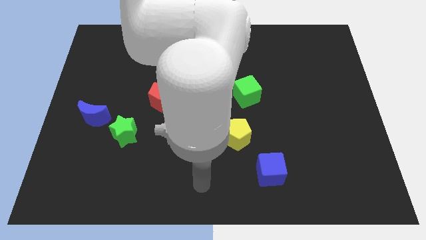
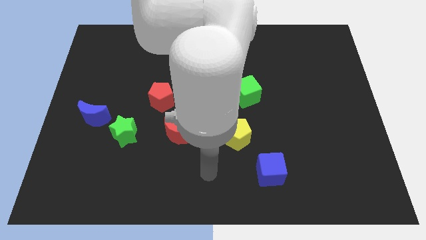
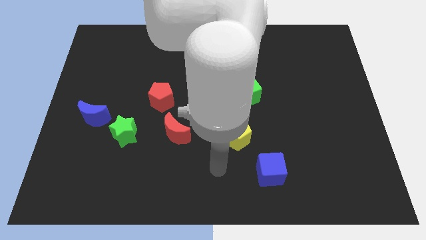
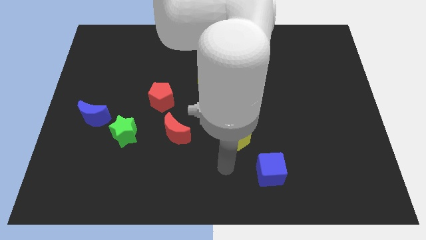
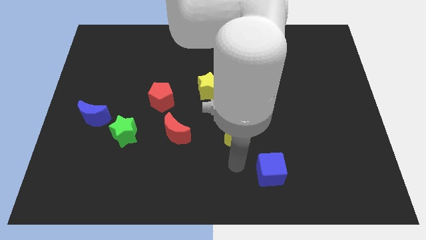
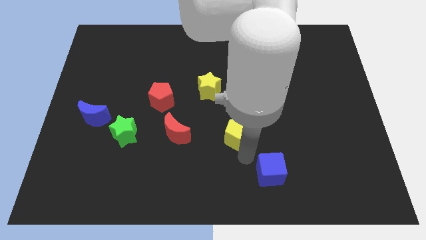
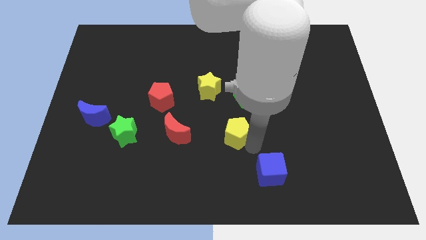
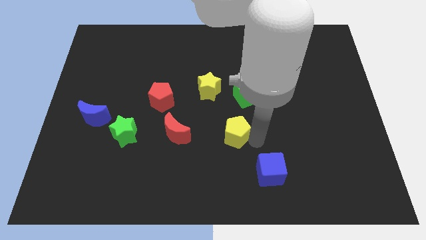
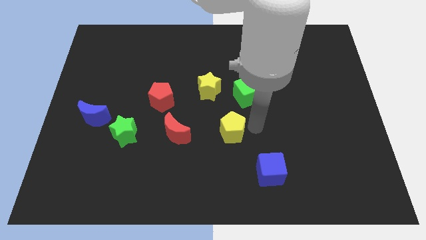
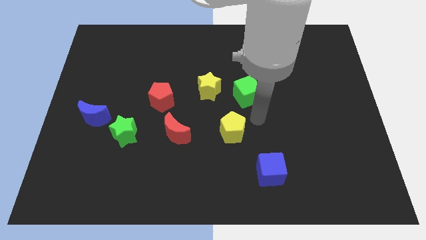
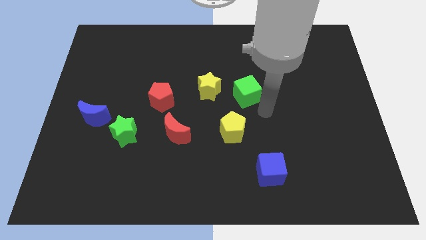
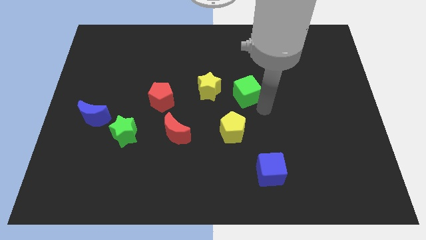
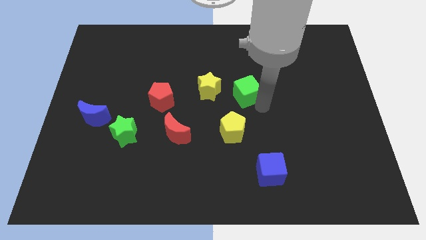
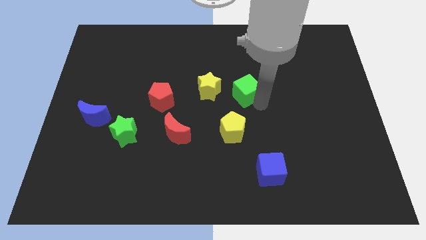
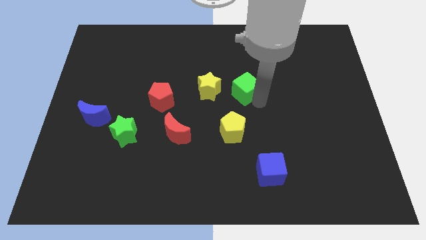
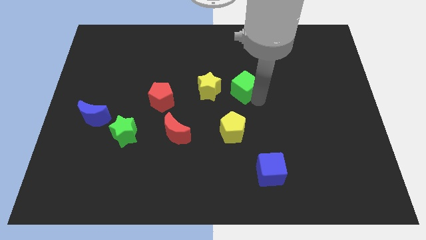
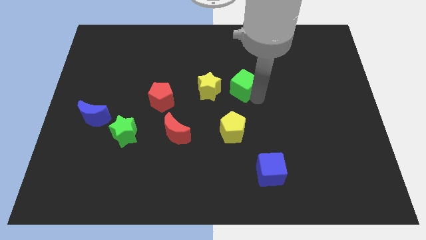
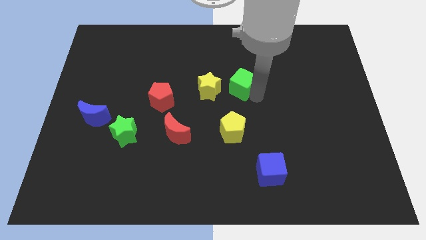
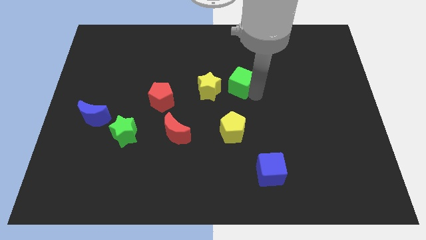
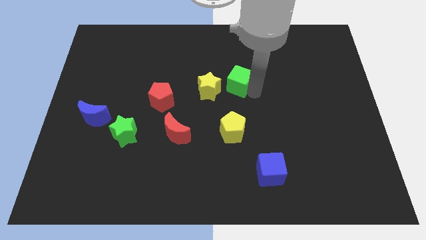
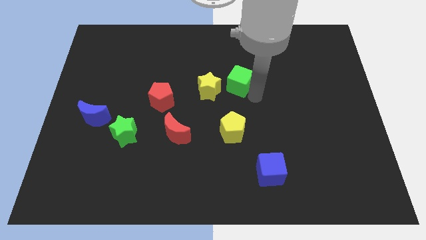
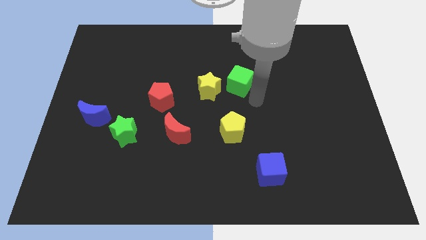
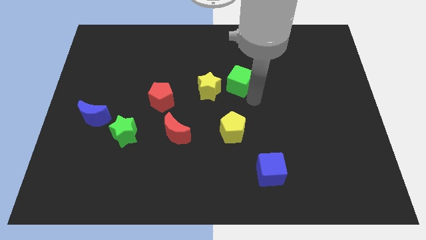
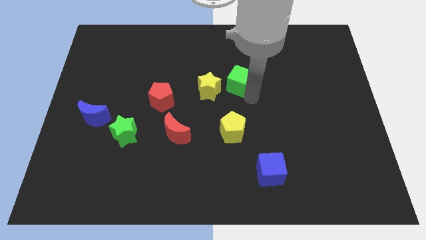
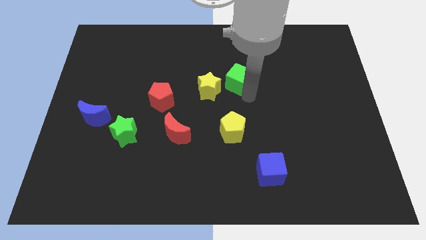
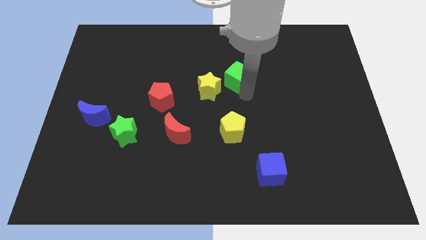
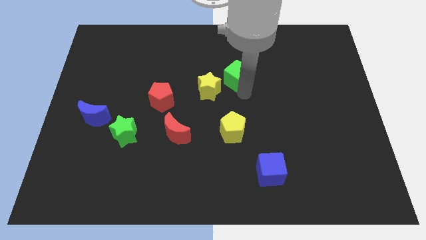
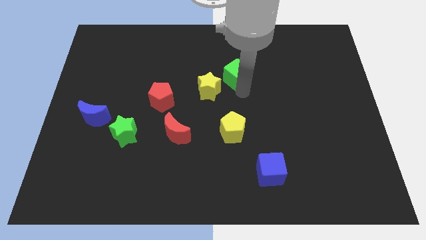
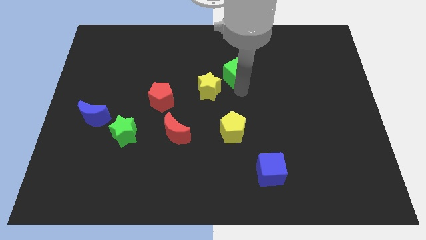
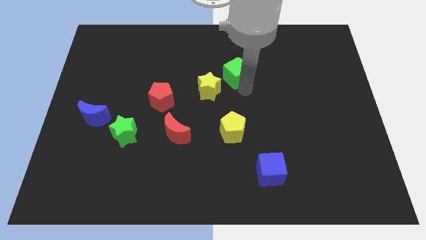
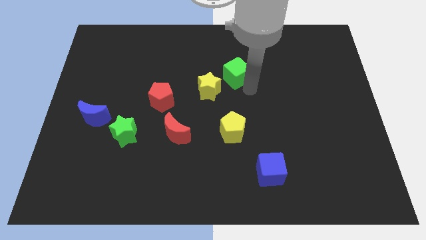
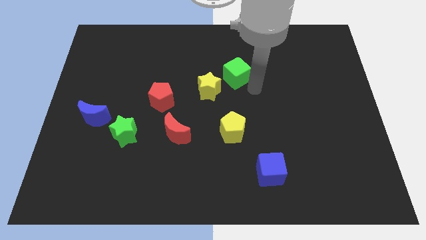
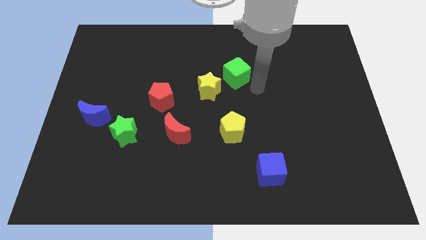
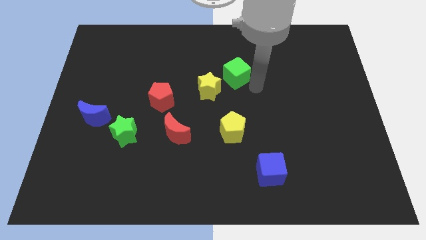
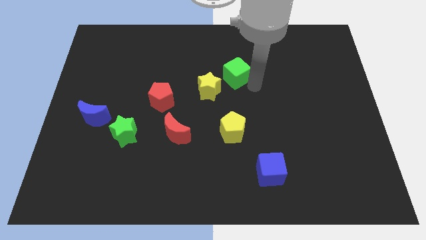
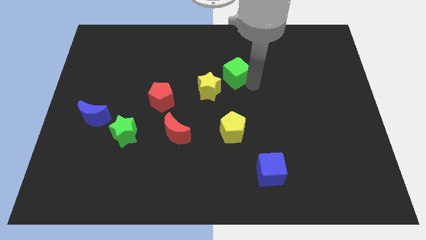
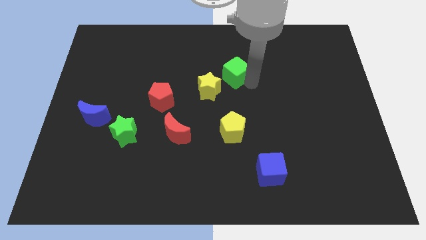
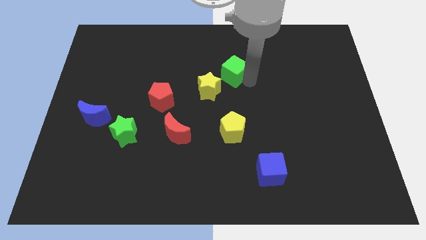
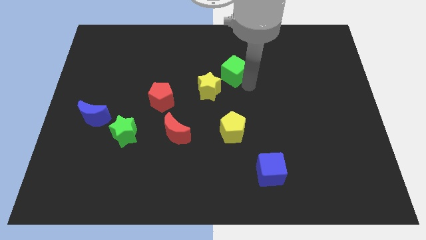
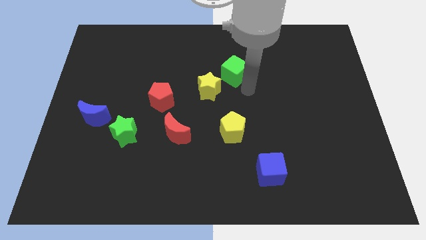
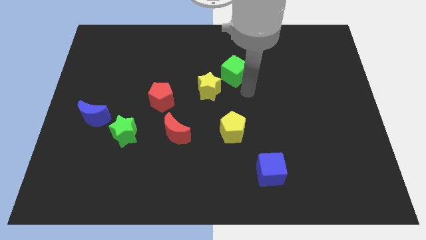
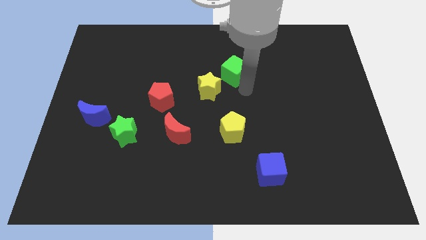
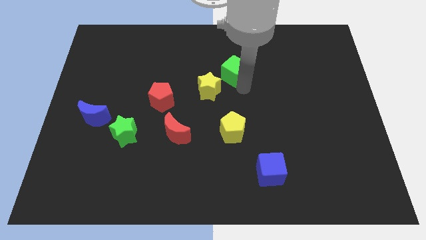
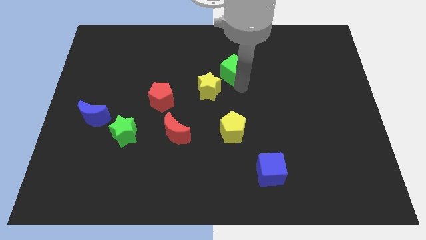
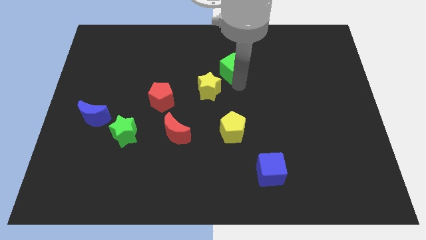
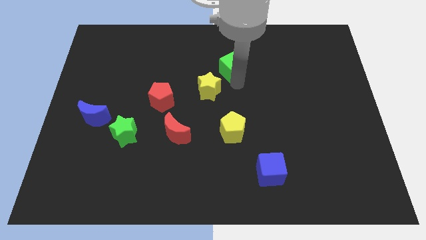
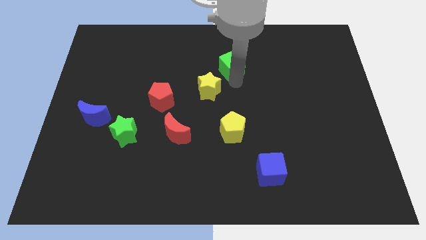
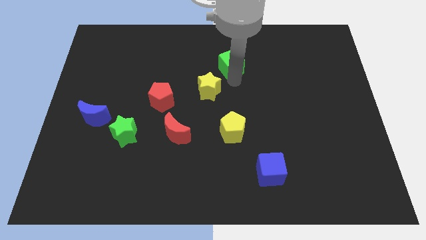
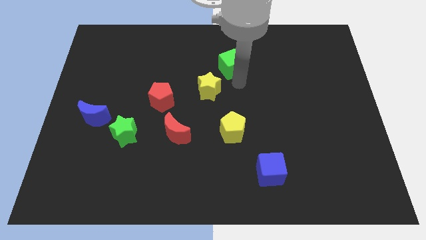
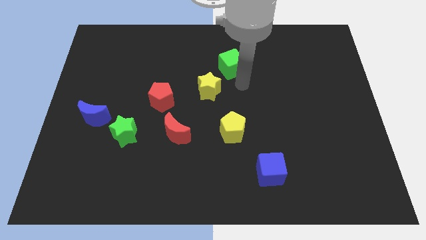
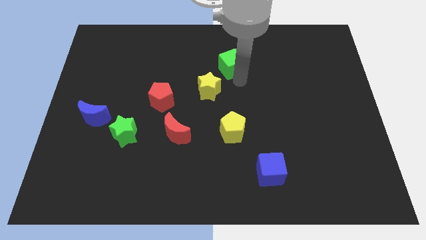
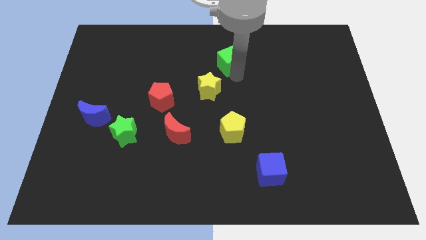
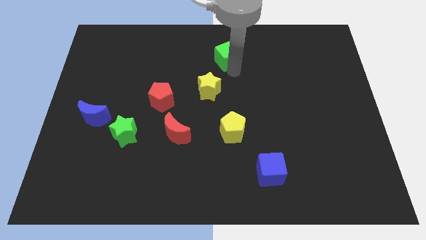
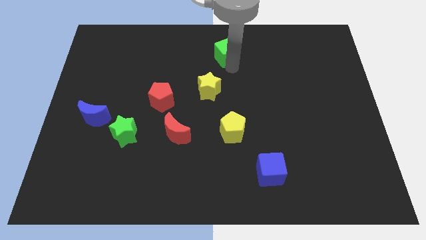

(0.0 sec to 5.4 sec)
put the green cube to the towards your base

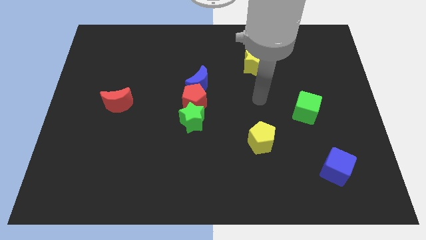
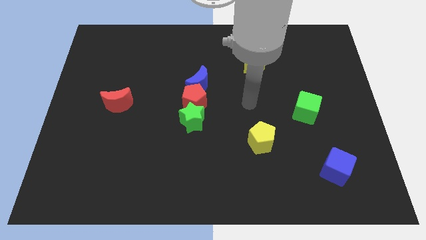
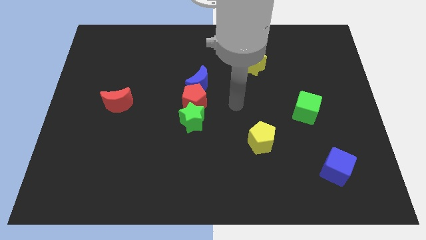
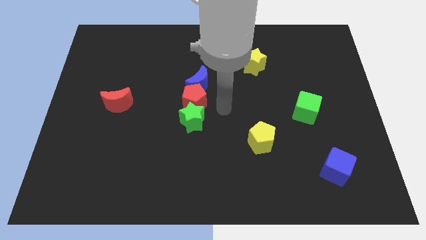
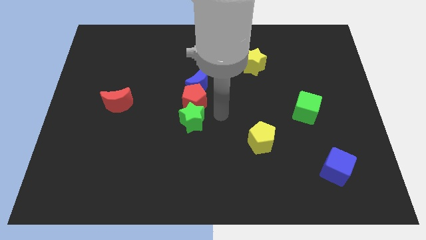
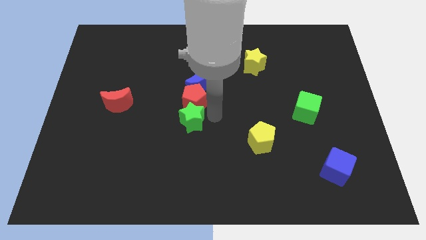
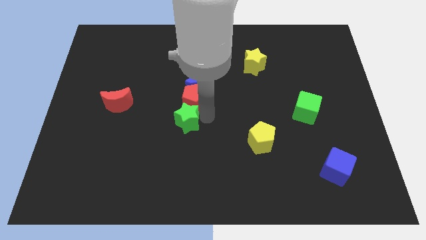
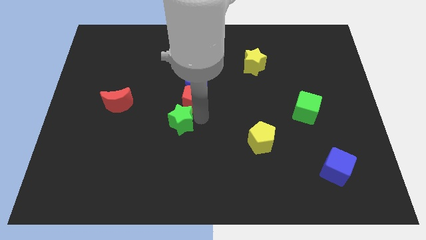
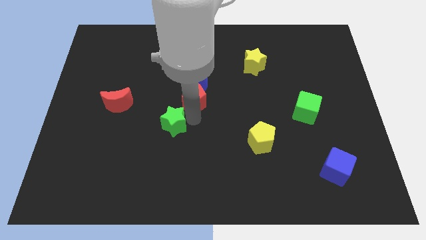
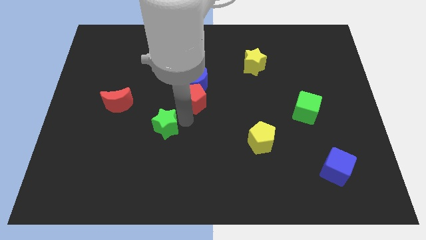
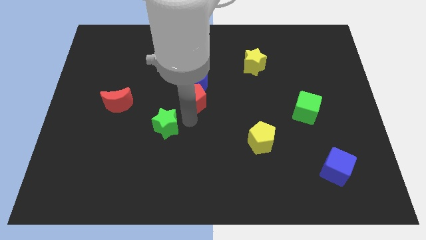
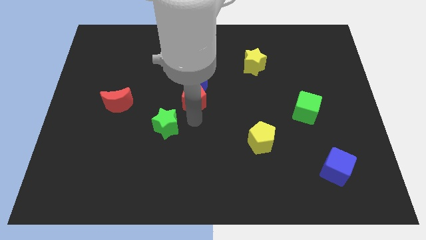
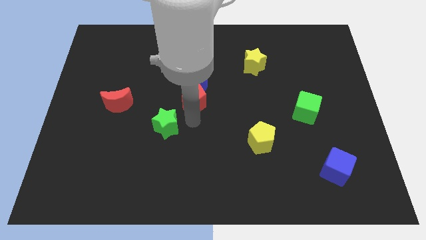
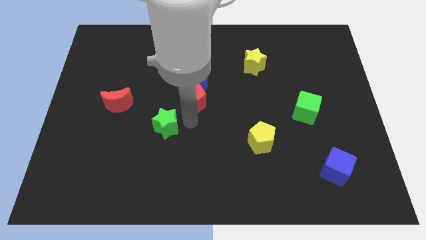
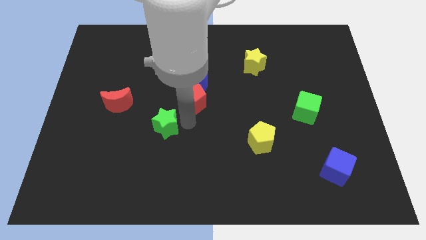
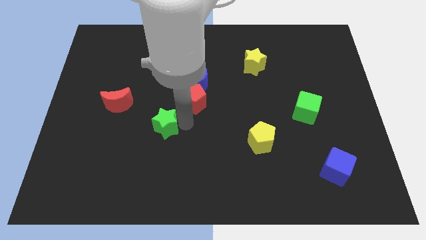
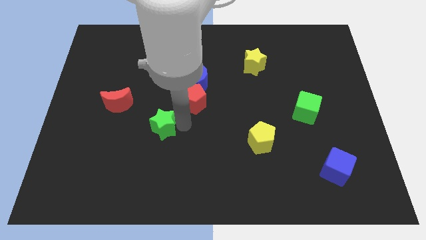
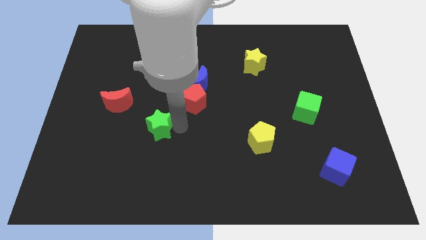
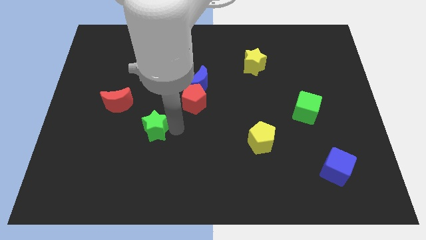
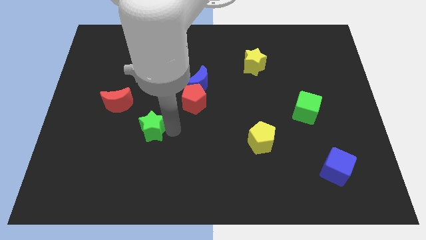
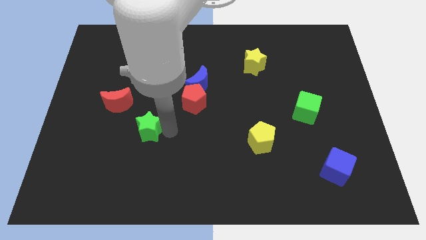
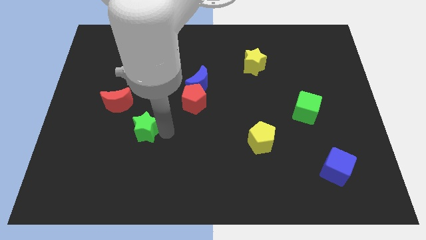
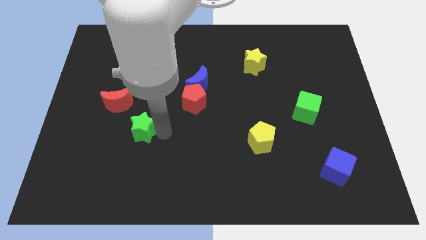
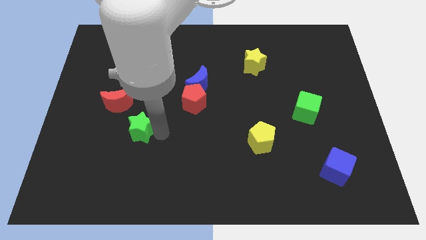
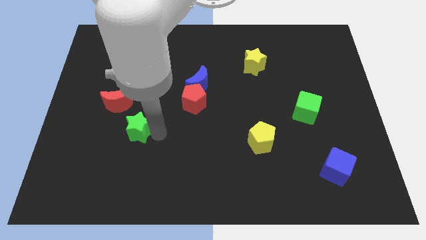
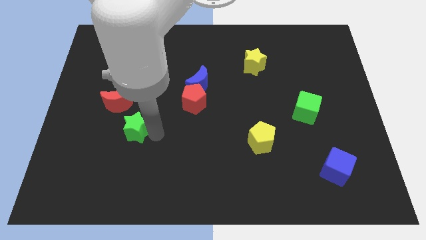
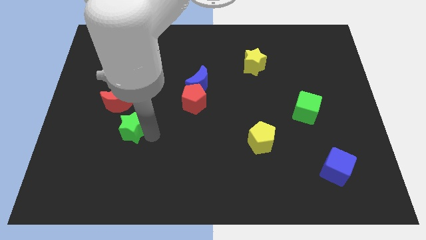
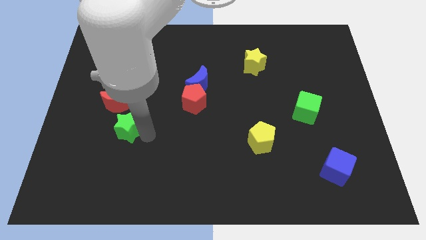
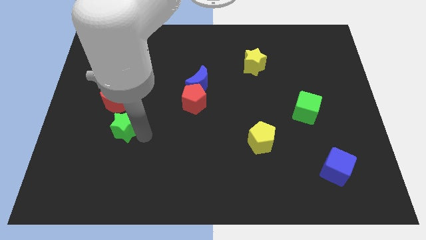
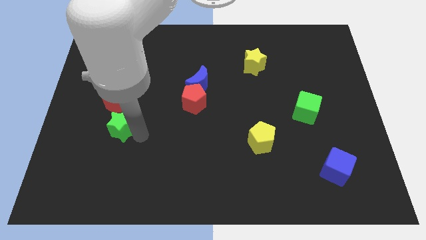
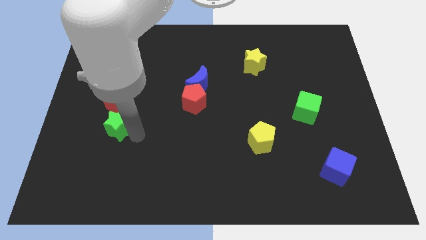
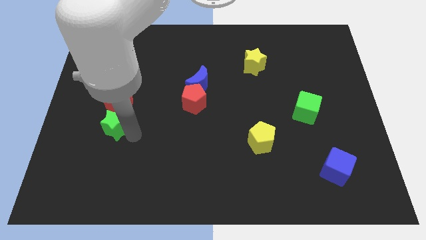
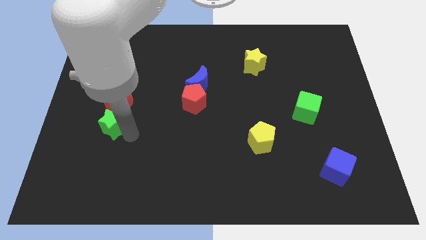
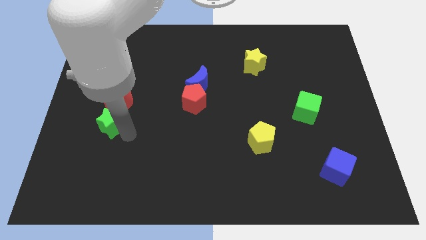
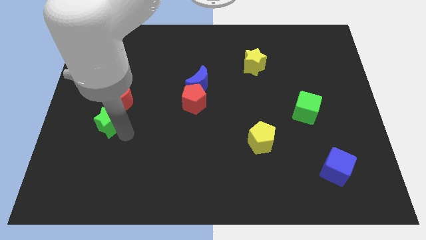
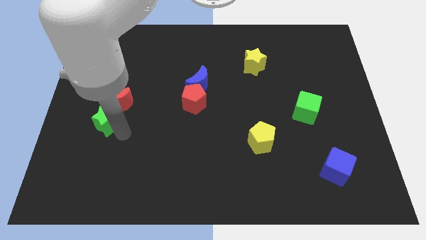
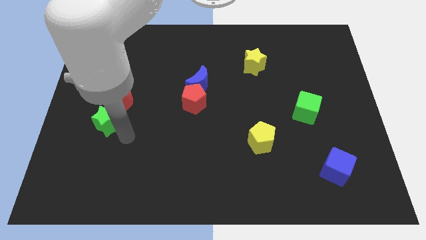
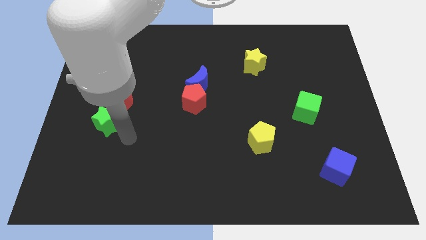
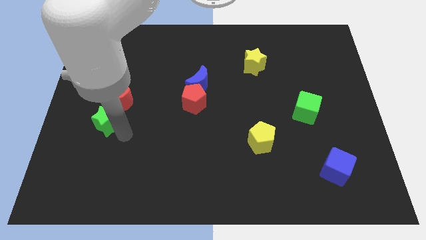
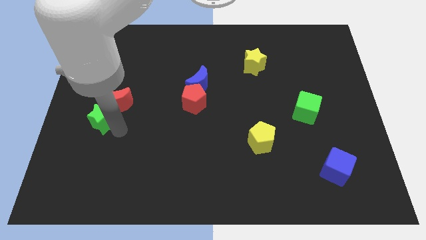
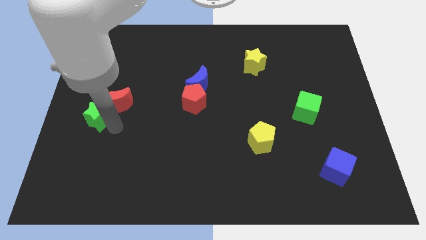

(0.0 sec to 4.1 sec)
move the green star to the left side
